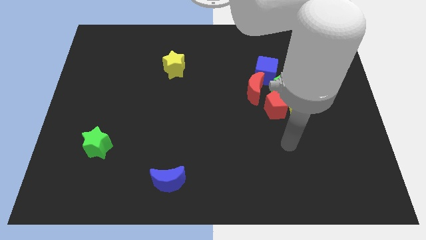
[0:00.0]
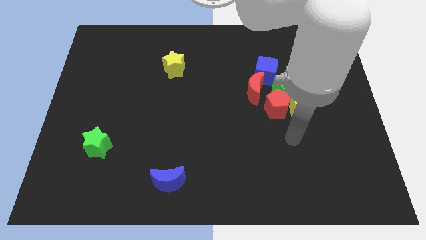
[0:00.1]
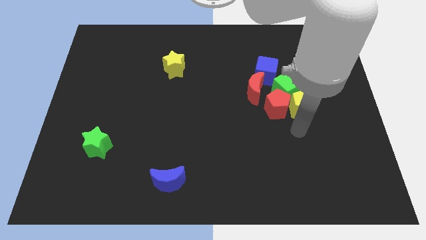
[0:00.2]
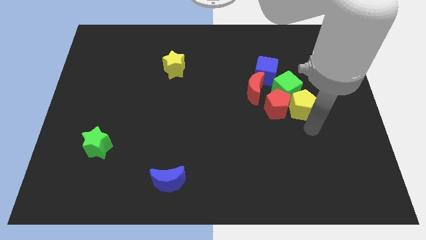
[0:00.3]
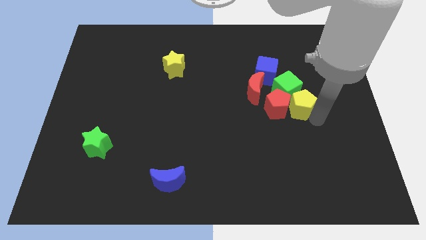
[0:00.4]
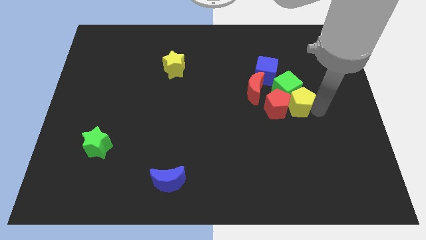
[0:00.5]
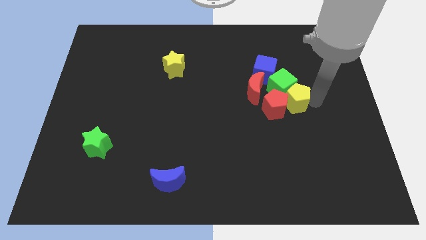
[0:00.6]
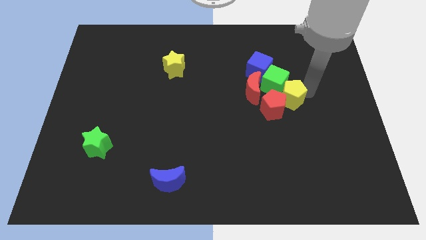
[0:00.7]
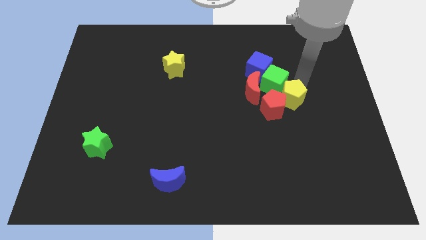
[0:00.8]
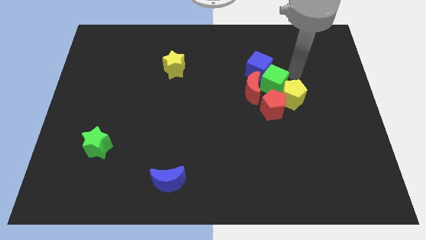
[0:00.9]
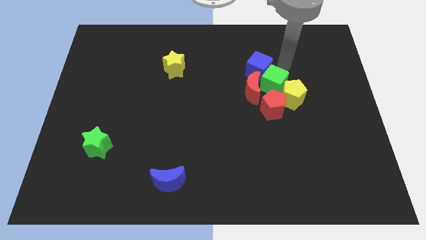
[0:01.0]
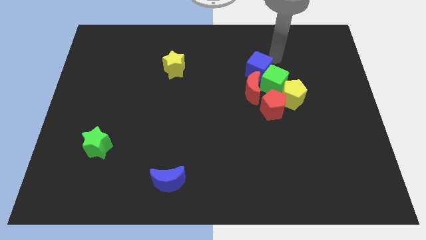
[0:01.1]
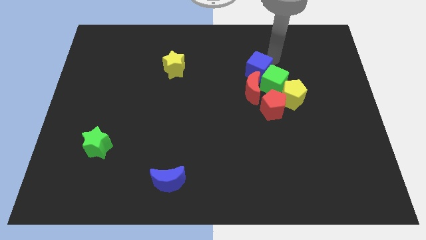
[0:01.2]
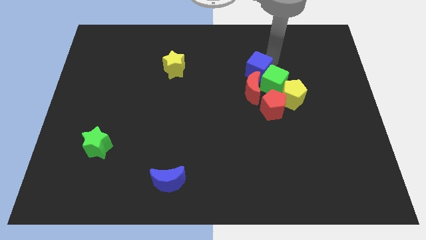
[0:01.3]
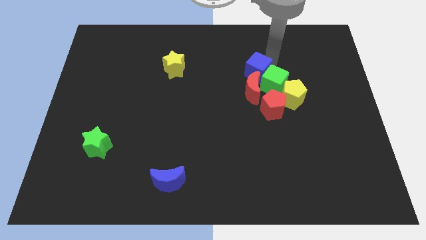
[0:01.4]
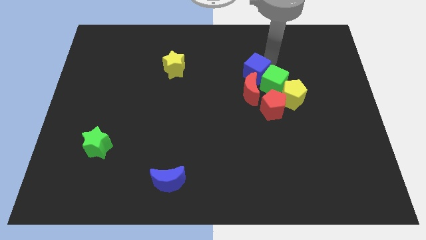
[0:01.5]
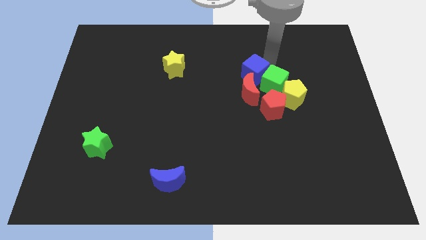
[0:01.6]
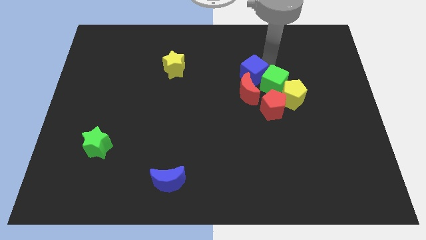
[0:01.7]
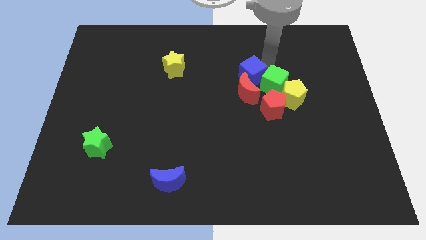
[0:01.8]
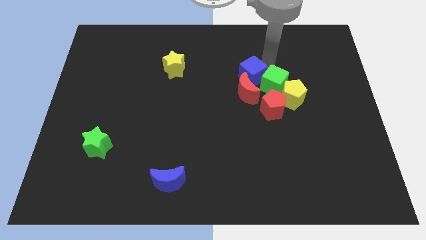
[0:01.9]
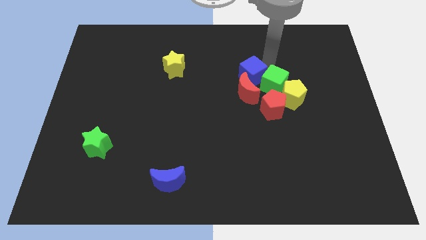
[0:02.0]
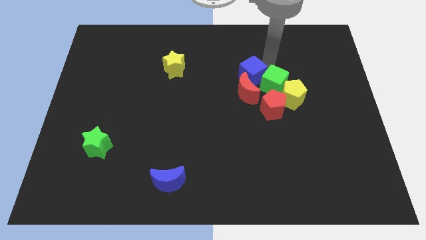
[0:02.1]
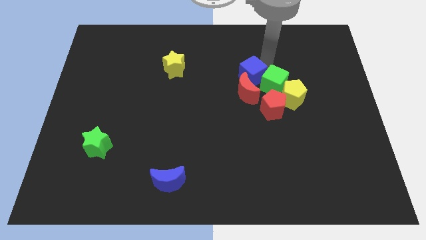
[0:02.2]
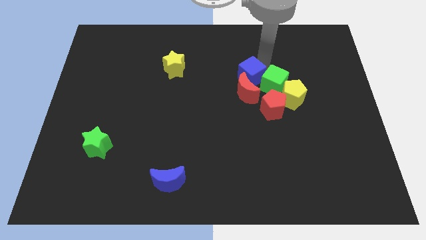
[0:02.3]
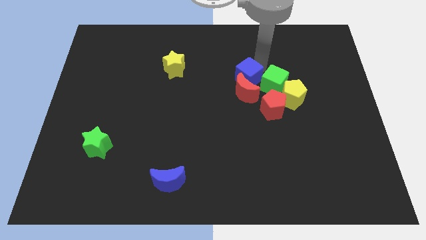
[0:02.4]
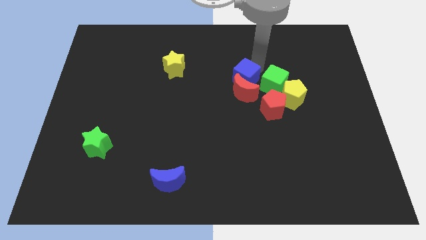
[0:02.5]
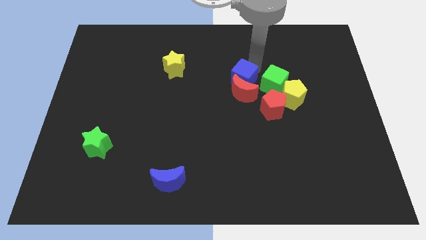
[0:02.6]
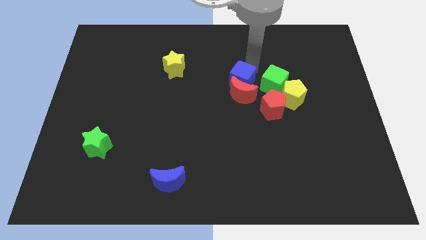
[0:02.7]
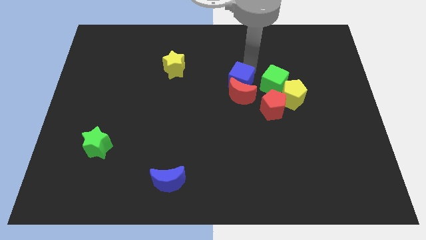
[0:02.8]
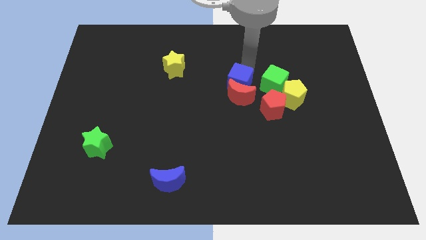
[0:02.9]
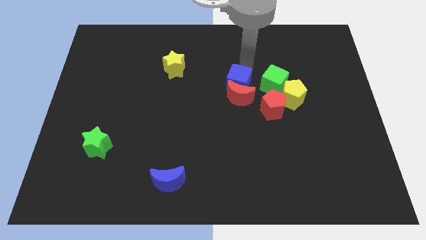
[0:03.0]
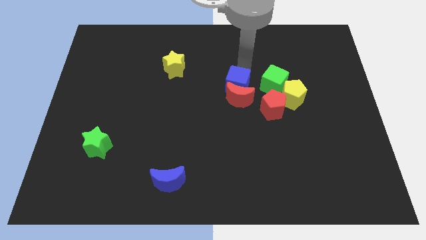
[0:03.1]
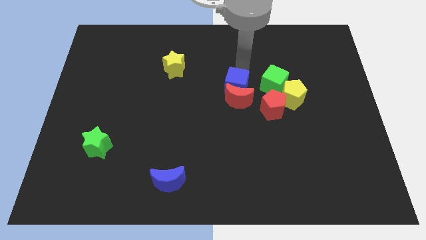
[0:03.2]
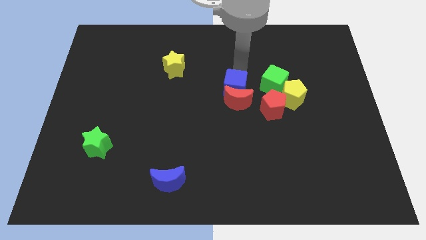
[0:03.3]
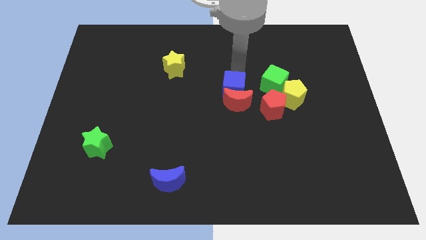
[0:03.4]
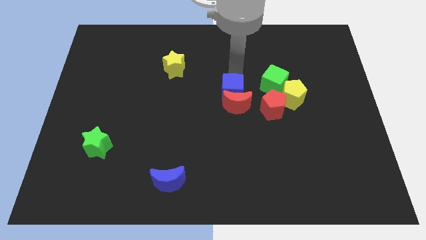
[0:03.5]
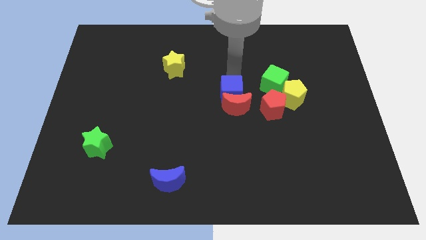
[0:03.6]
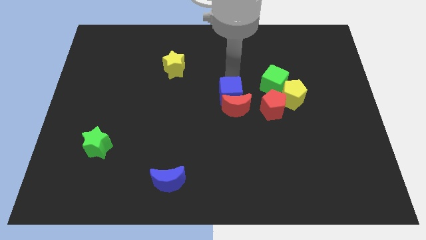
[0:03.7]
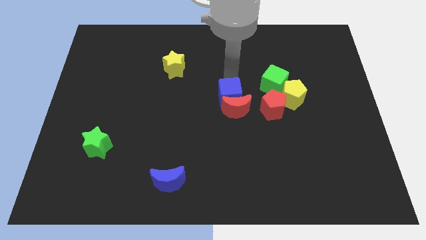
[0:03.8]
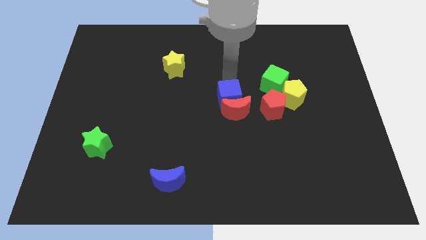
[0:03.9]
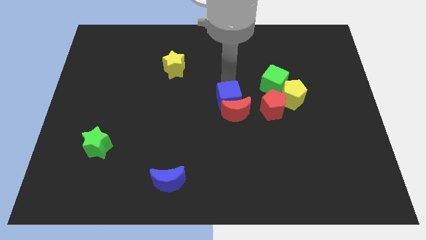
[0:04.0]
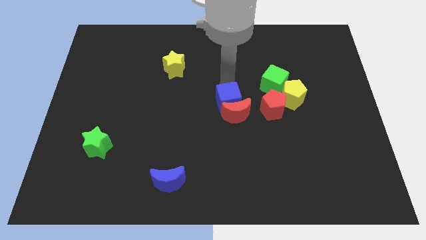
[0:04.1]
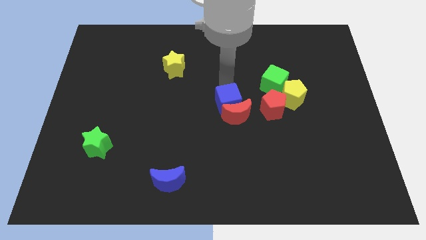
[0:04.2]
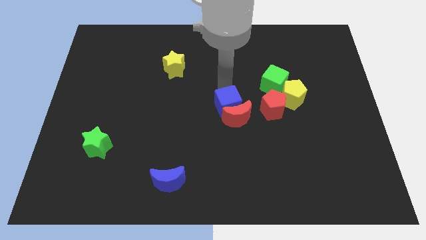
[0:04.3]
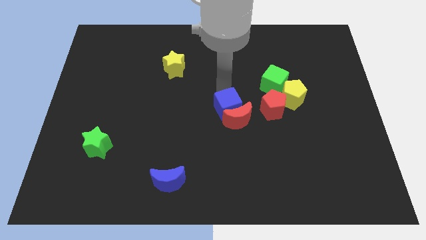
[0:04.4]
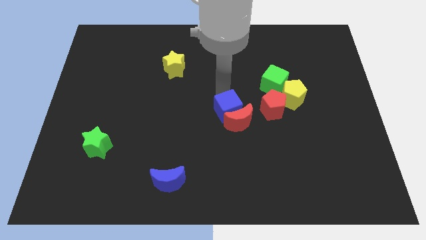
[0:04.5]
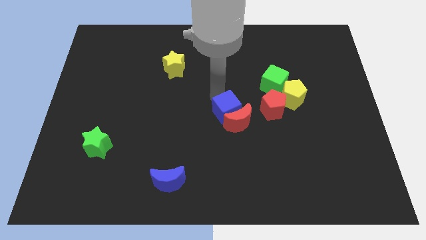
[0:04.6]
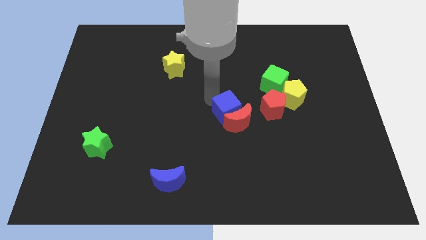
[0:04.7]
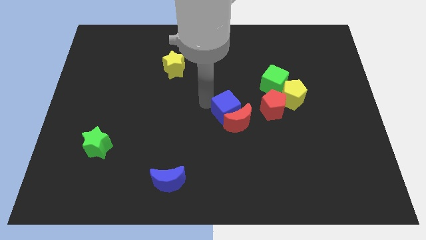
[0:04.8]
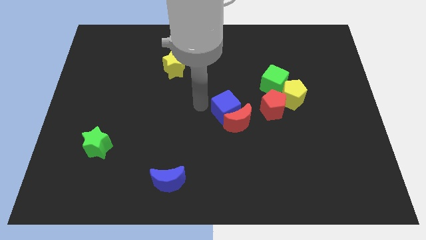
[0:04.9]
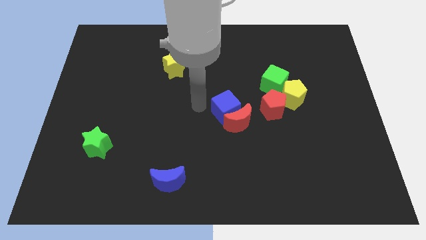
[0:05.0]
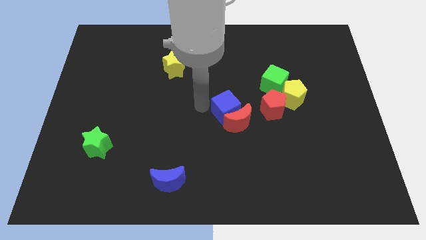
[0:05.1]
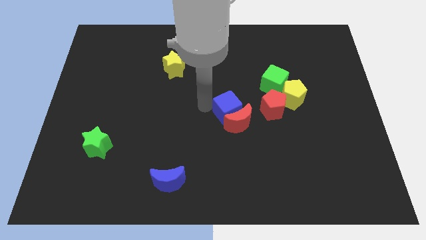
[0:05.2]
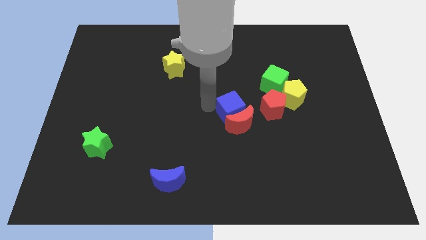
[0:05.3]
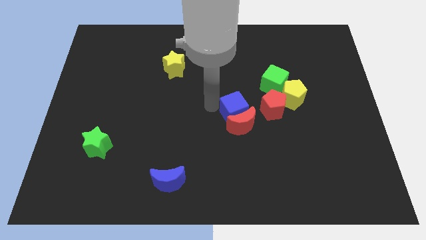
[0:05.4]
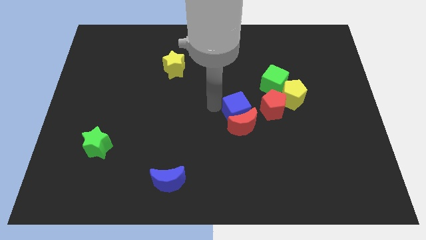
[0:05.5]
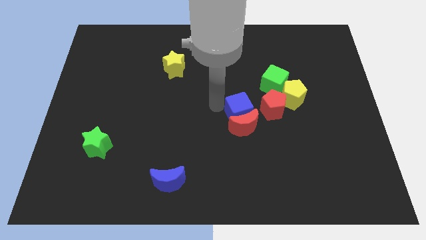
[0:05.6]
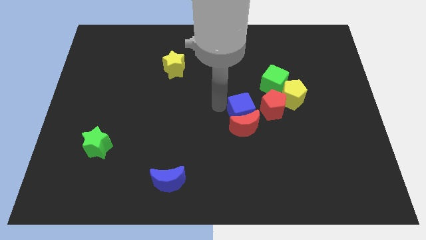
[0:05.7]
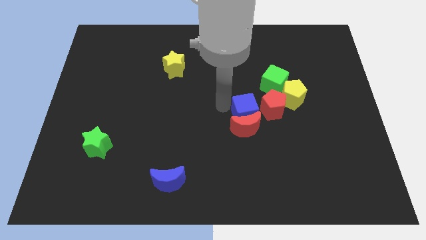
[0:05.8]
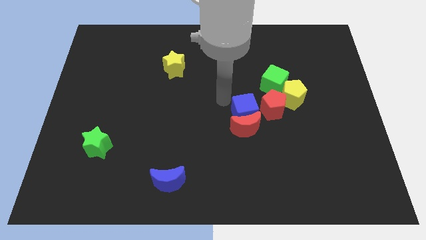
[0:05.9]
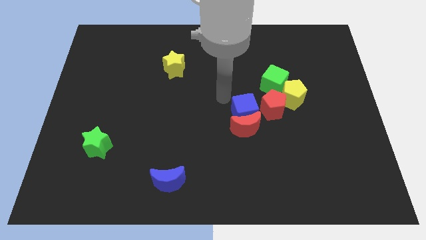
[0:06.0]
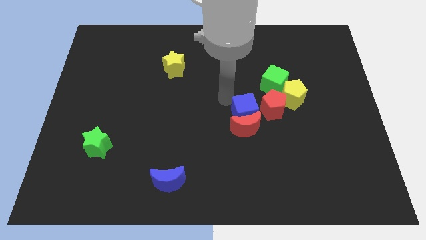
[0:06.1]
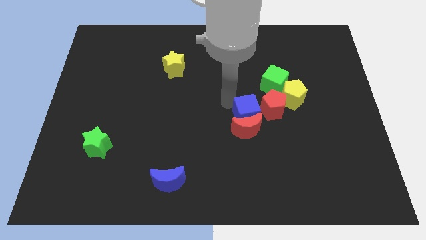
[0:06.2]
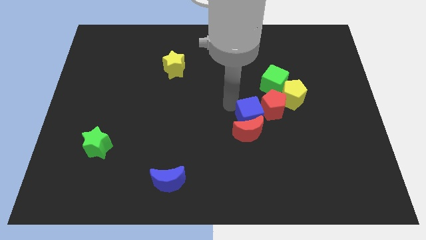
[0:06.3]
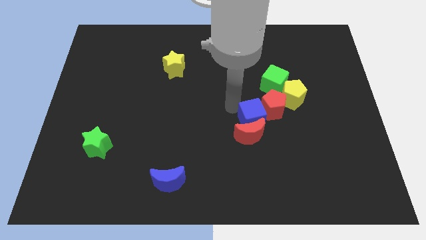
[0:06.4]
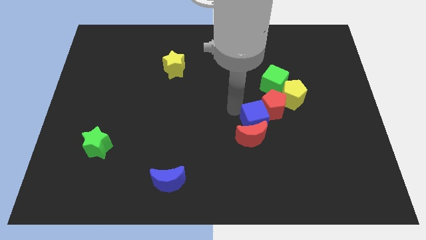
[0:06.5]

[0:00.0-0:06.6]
put the blue cube below the red pentagon

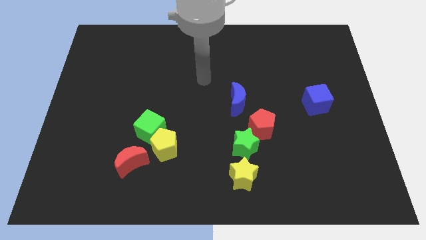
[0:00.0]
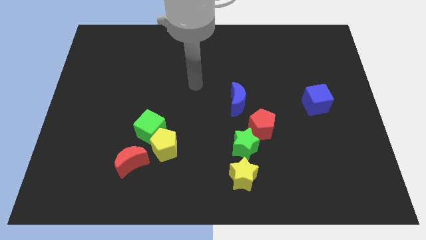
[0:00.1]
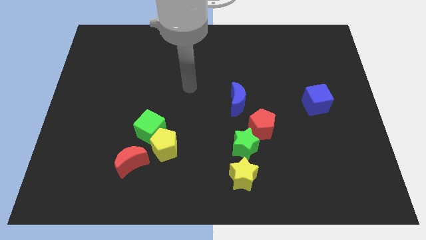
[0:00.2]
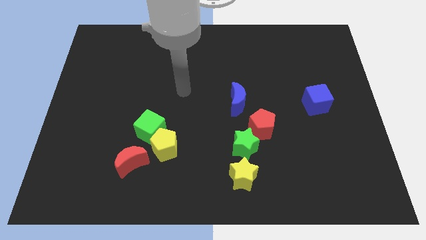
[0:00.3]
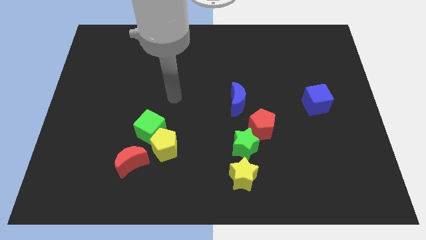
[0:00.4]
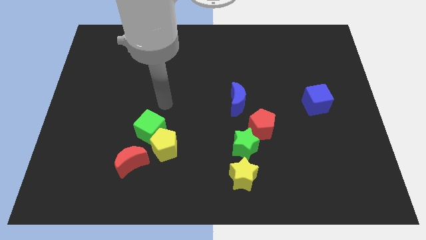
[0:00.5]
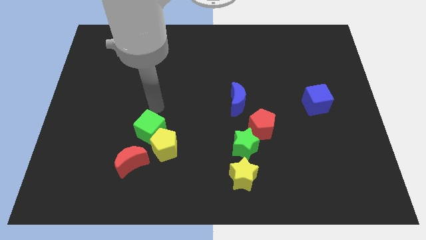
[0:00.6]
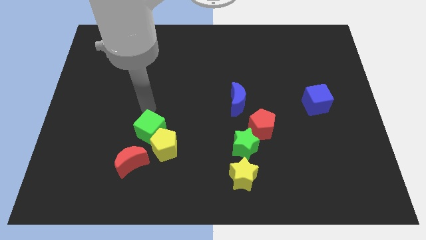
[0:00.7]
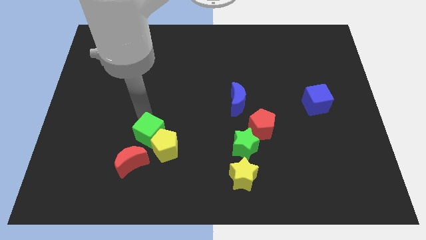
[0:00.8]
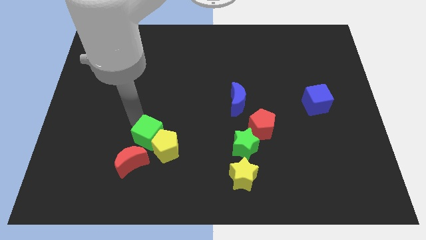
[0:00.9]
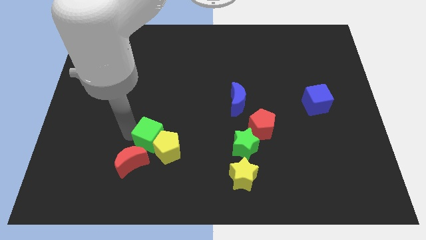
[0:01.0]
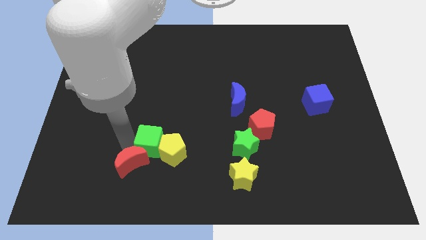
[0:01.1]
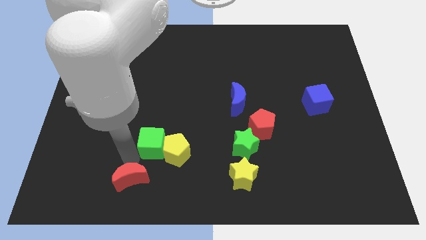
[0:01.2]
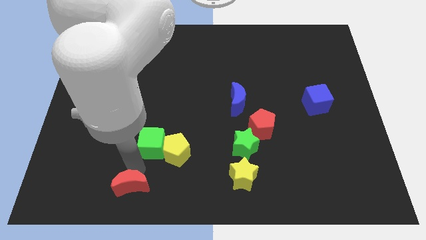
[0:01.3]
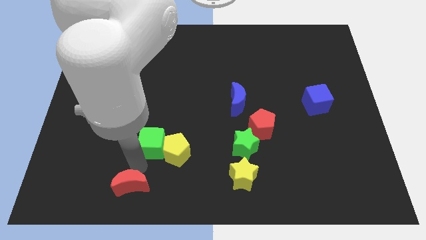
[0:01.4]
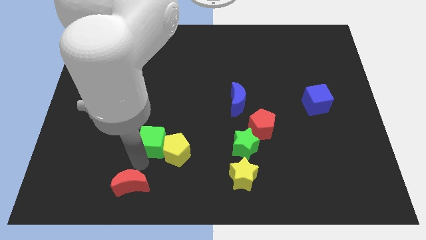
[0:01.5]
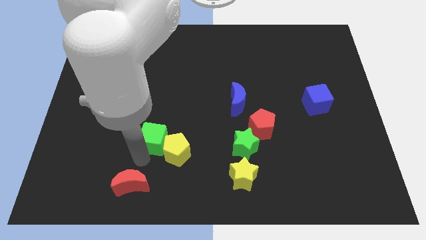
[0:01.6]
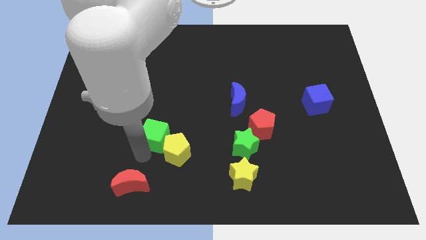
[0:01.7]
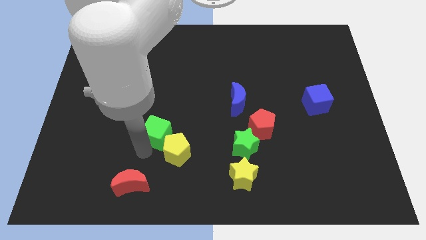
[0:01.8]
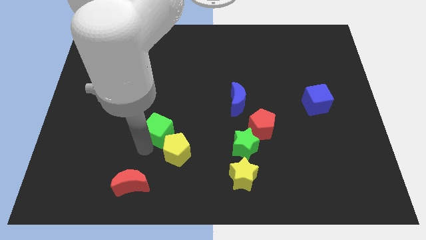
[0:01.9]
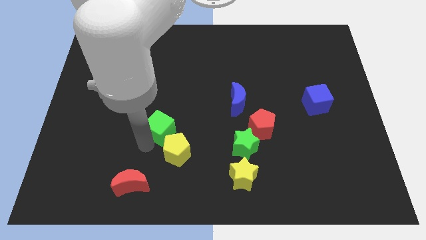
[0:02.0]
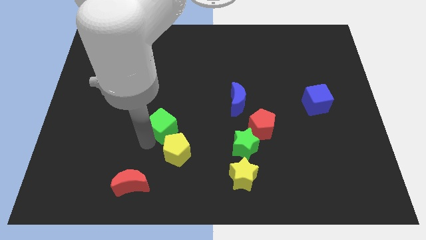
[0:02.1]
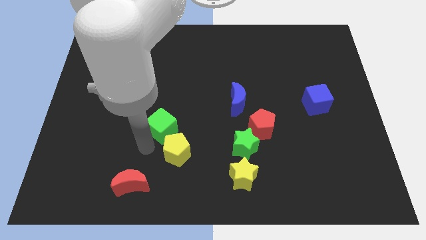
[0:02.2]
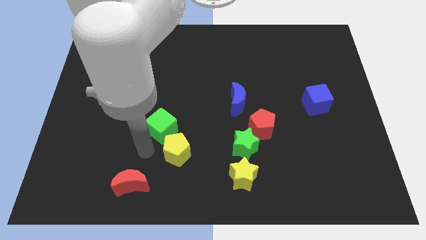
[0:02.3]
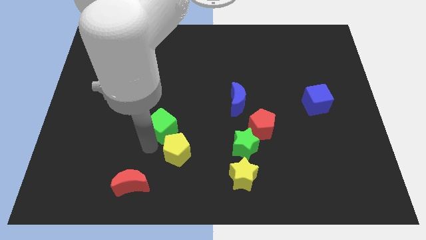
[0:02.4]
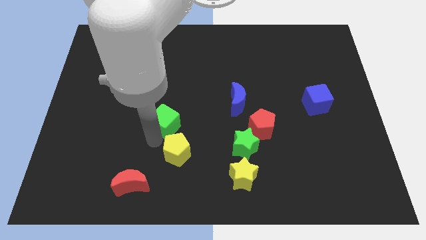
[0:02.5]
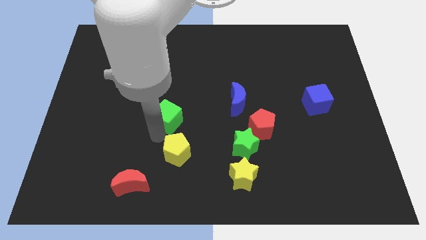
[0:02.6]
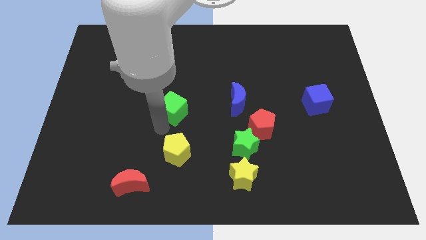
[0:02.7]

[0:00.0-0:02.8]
slide the green cube just left of the blue moon
